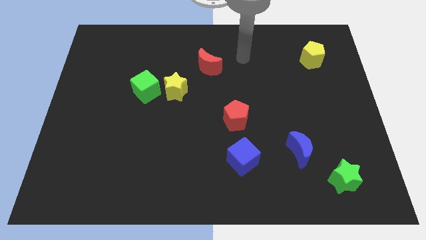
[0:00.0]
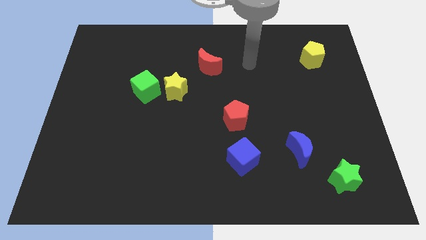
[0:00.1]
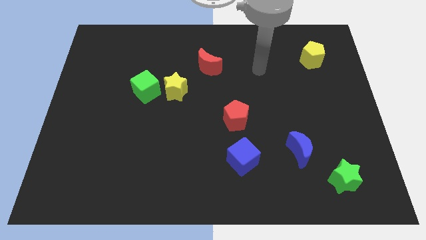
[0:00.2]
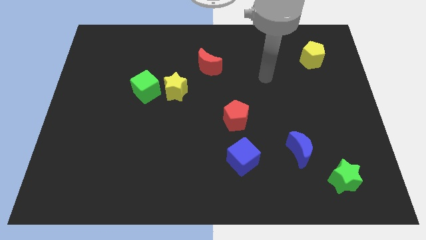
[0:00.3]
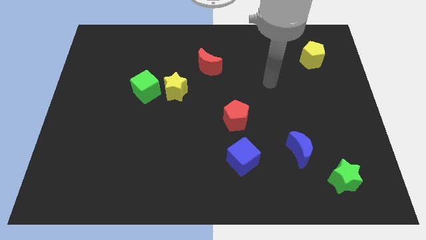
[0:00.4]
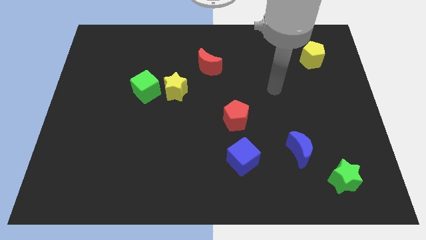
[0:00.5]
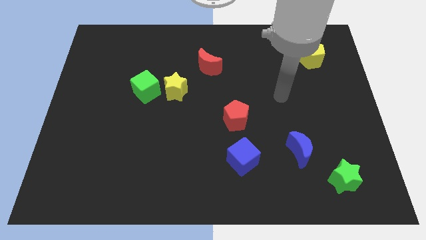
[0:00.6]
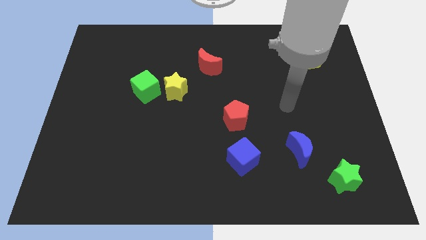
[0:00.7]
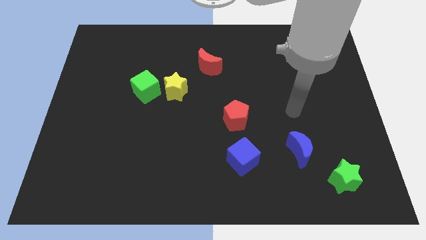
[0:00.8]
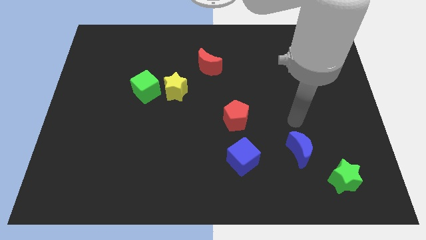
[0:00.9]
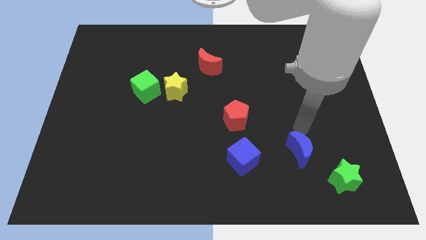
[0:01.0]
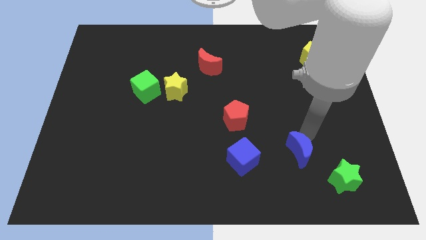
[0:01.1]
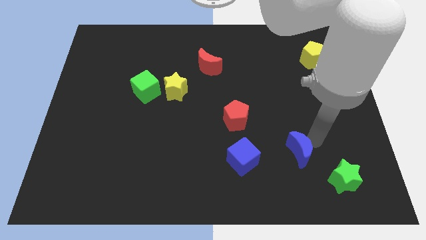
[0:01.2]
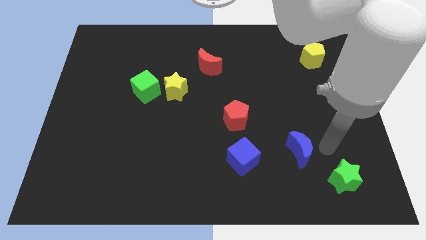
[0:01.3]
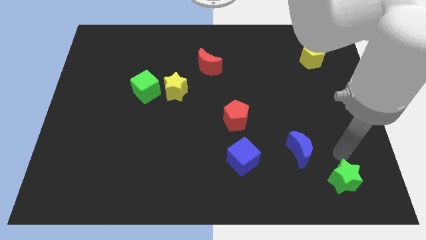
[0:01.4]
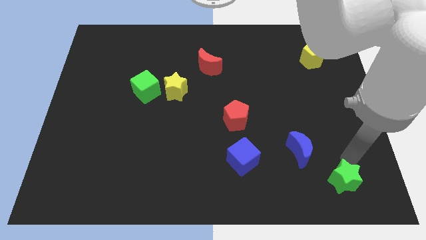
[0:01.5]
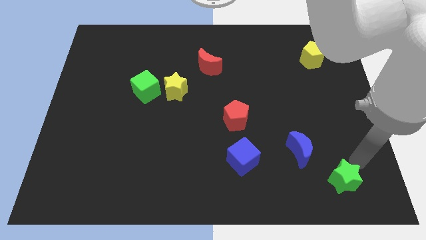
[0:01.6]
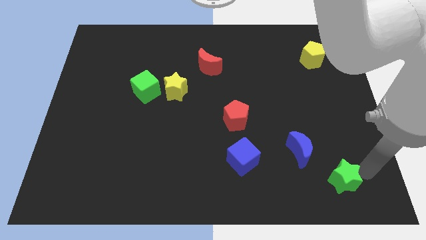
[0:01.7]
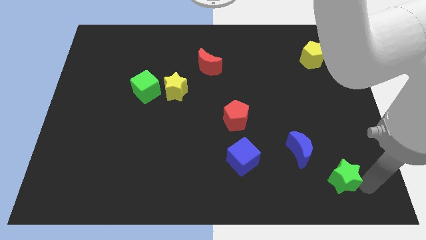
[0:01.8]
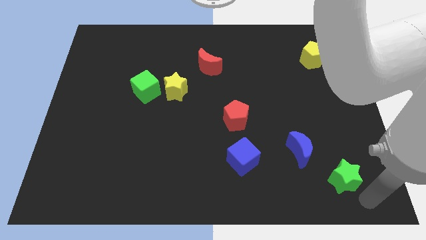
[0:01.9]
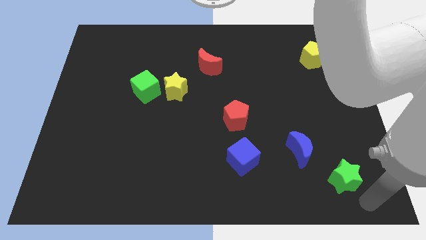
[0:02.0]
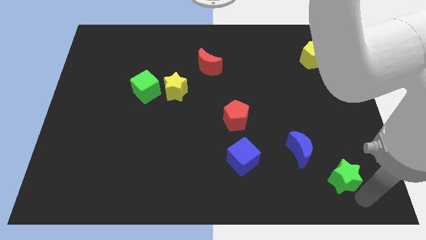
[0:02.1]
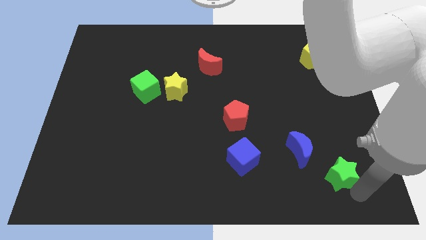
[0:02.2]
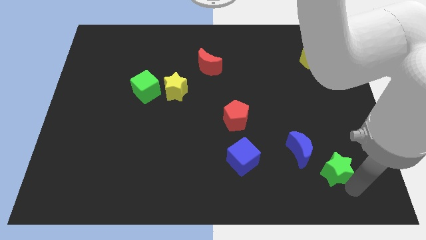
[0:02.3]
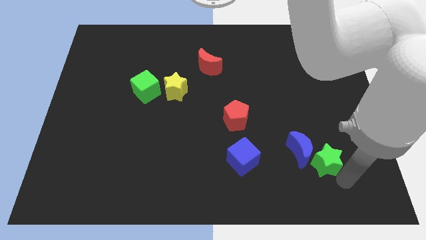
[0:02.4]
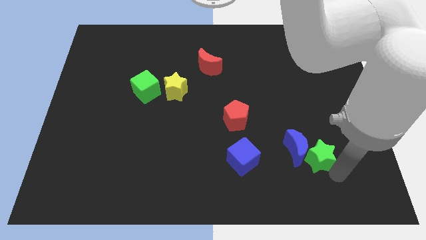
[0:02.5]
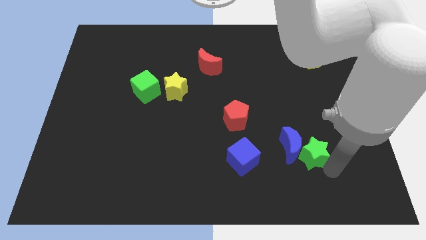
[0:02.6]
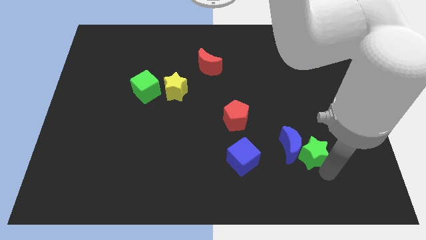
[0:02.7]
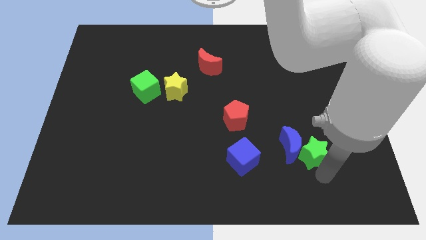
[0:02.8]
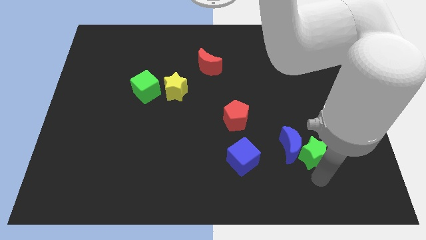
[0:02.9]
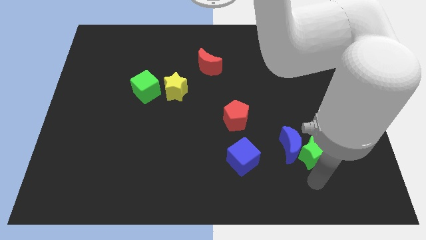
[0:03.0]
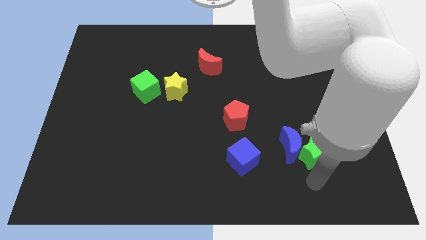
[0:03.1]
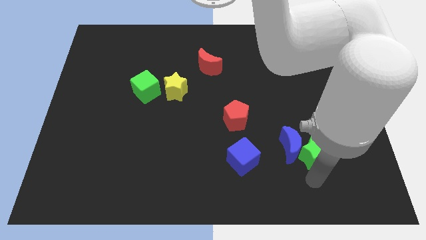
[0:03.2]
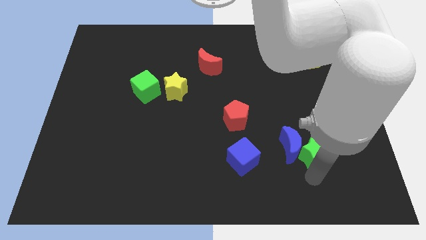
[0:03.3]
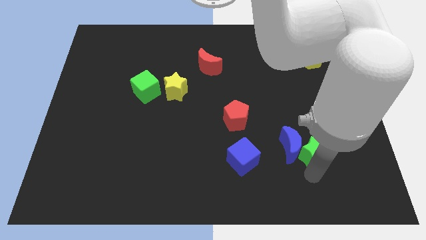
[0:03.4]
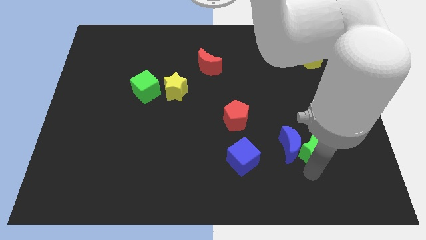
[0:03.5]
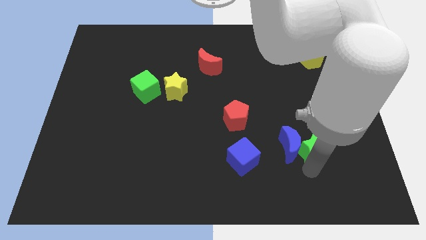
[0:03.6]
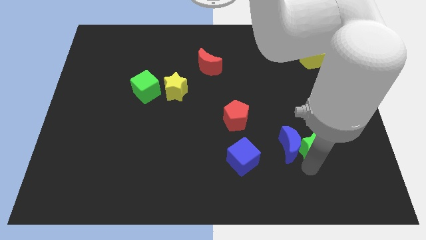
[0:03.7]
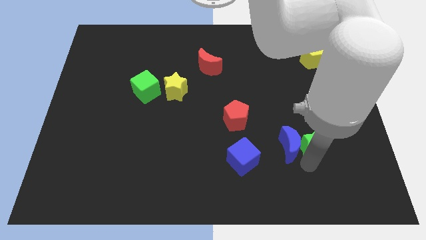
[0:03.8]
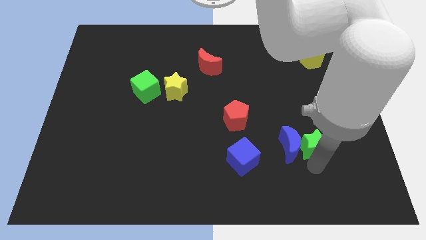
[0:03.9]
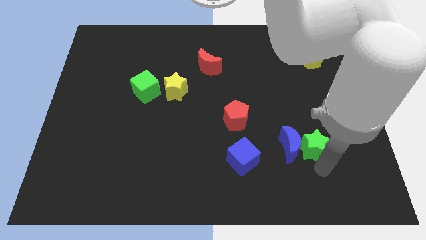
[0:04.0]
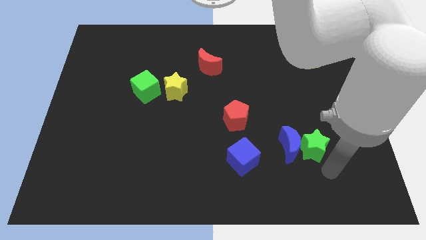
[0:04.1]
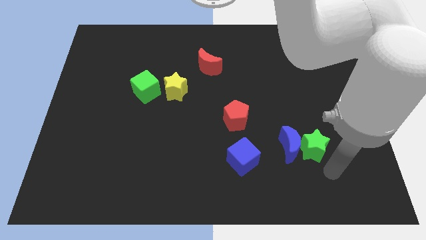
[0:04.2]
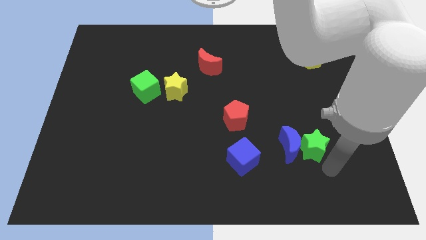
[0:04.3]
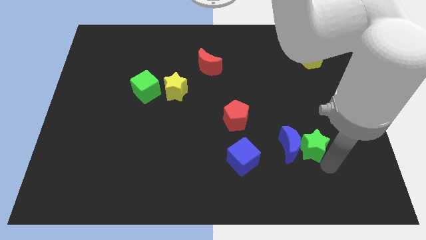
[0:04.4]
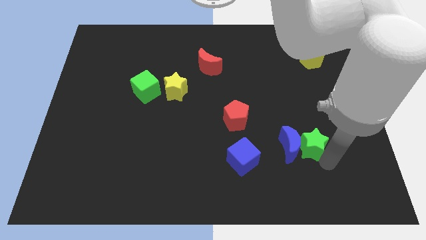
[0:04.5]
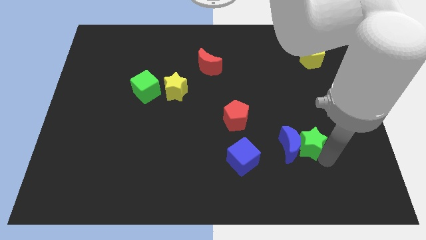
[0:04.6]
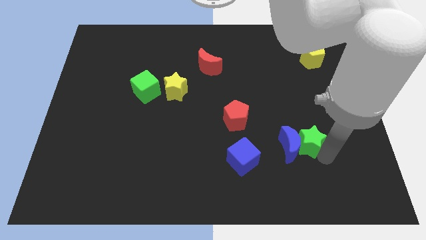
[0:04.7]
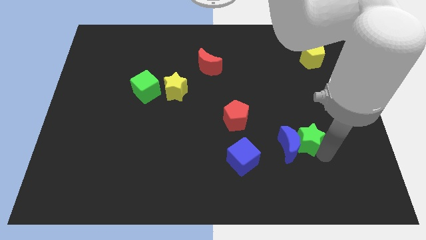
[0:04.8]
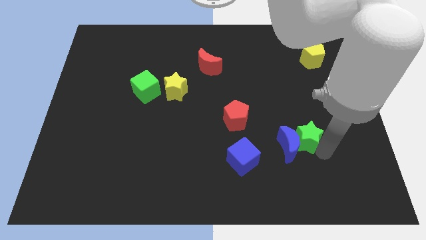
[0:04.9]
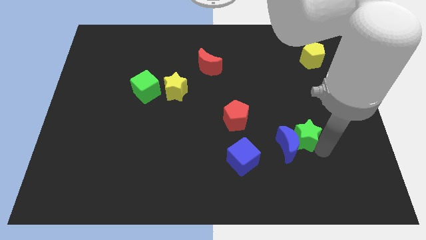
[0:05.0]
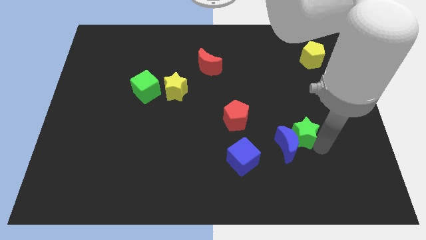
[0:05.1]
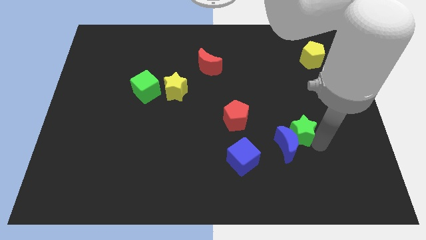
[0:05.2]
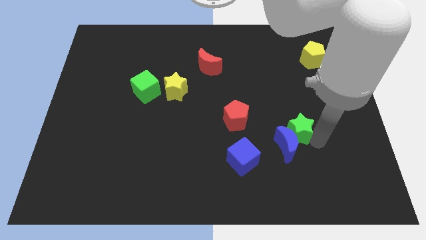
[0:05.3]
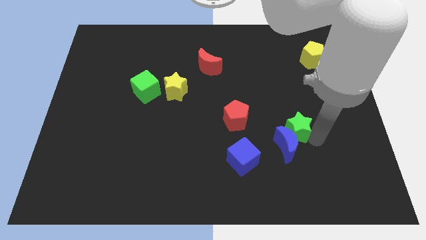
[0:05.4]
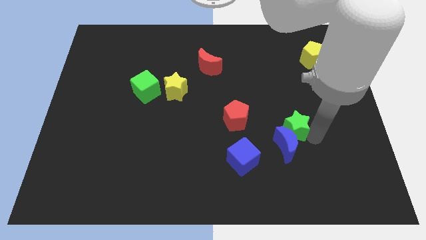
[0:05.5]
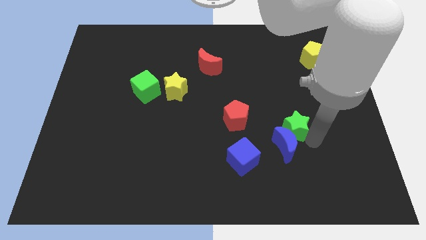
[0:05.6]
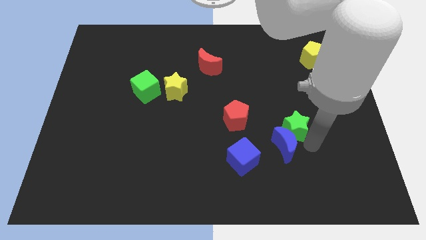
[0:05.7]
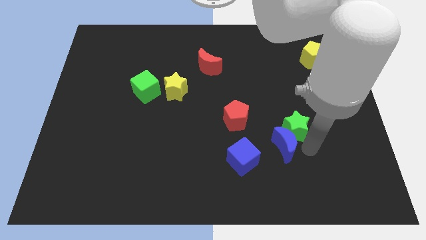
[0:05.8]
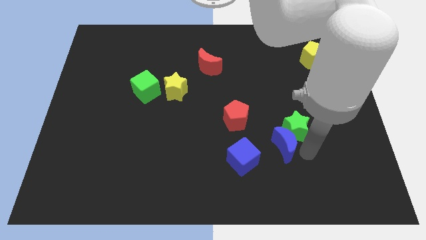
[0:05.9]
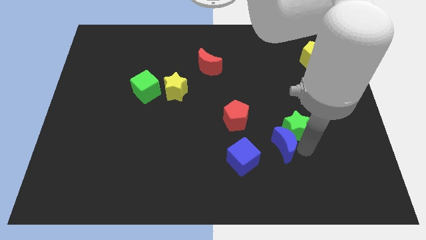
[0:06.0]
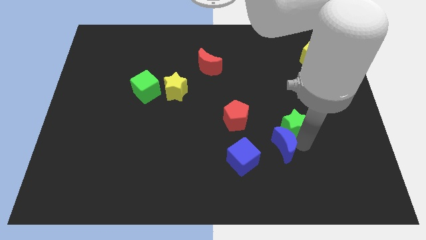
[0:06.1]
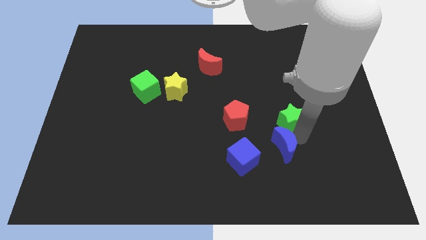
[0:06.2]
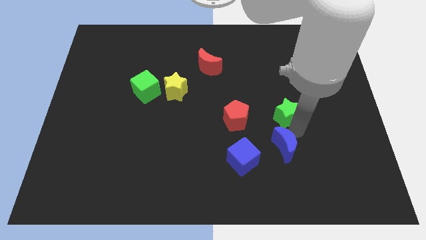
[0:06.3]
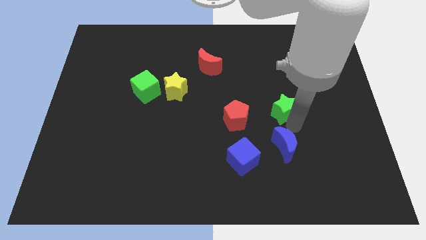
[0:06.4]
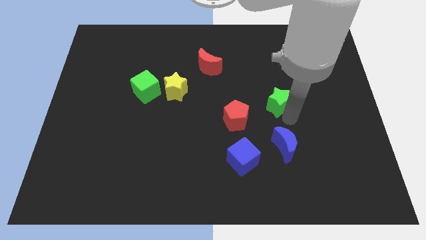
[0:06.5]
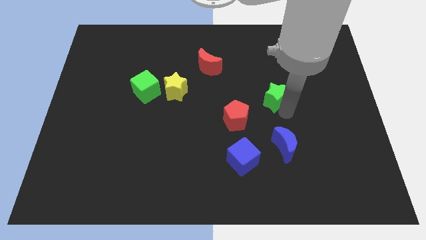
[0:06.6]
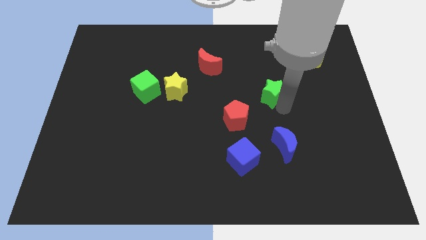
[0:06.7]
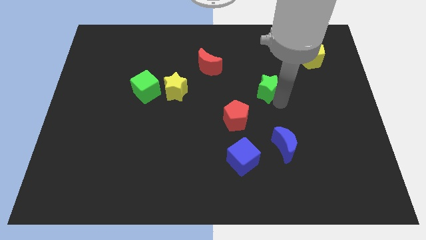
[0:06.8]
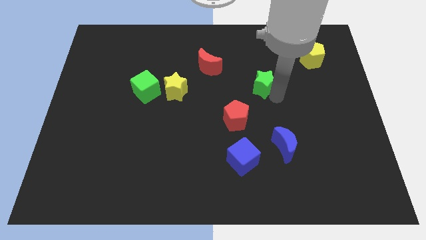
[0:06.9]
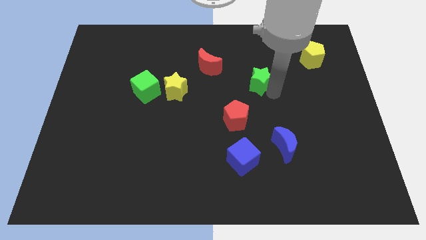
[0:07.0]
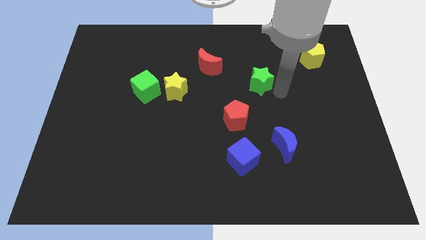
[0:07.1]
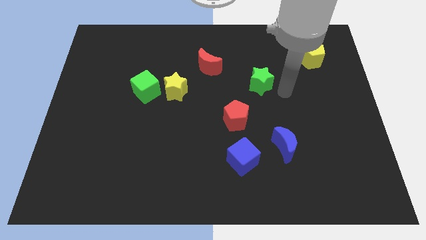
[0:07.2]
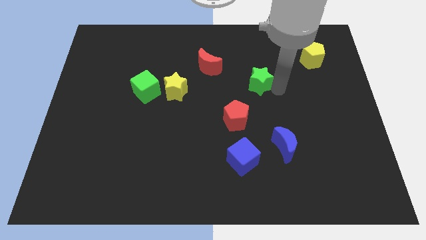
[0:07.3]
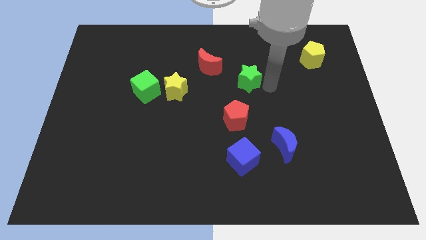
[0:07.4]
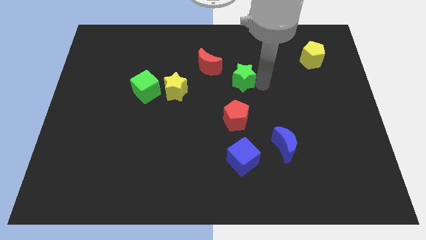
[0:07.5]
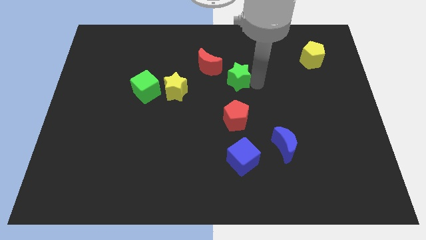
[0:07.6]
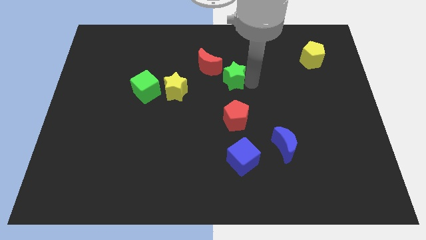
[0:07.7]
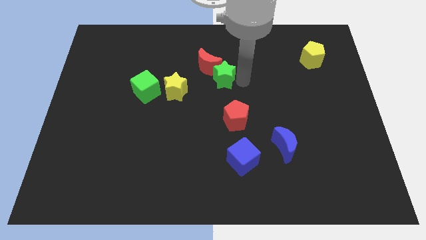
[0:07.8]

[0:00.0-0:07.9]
move the green star towards the red moon
